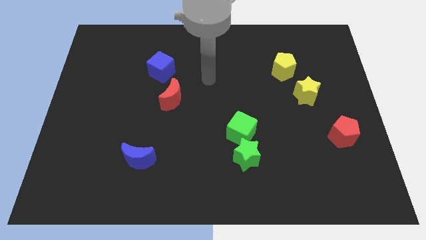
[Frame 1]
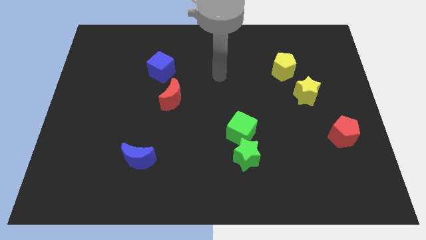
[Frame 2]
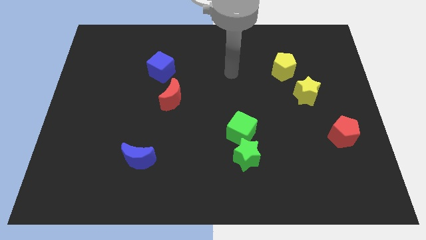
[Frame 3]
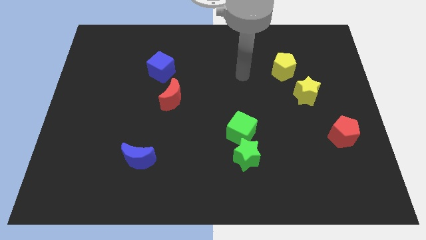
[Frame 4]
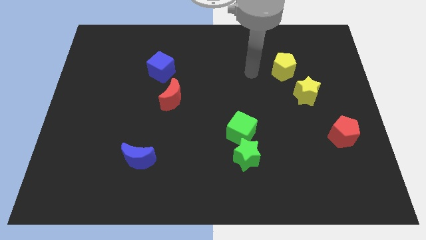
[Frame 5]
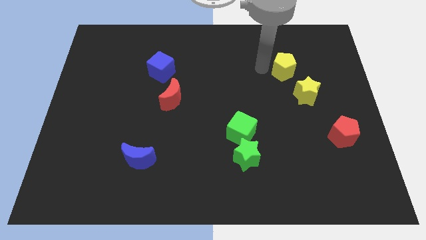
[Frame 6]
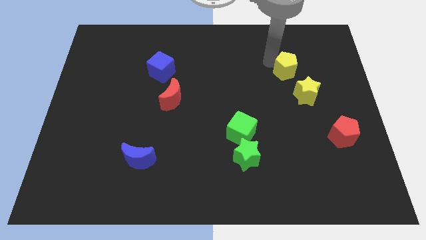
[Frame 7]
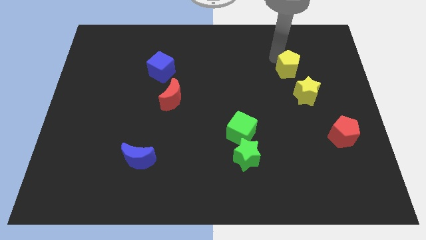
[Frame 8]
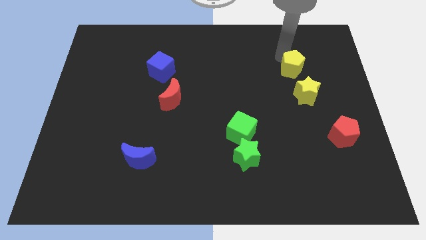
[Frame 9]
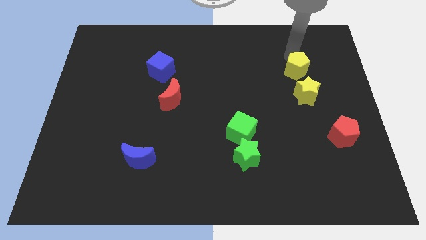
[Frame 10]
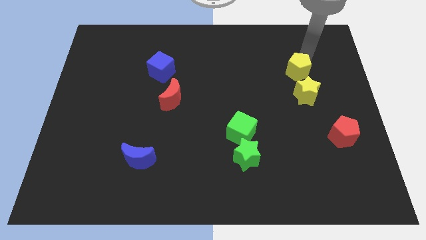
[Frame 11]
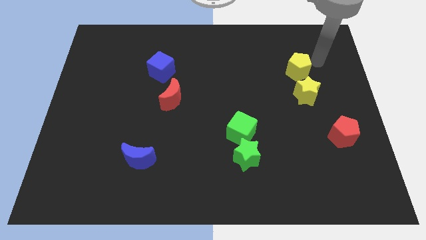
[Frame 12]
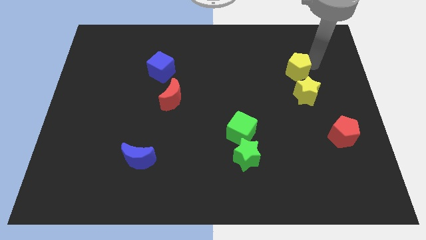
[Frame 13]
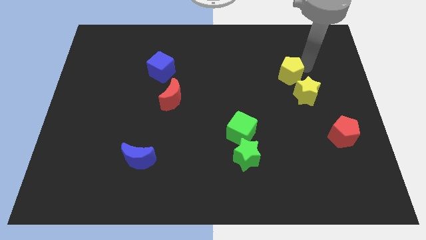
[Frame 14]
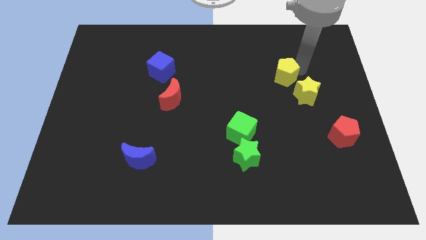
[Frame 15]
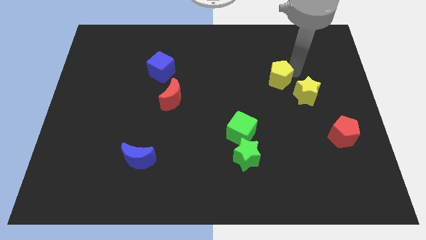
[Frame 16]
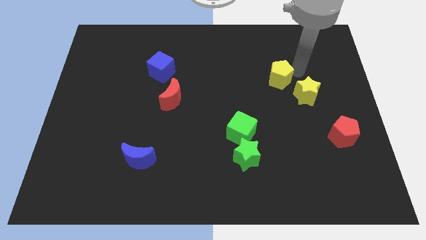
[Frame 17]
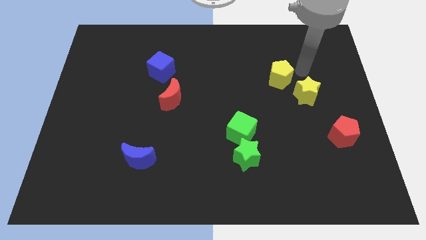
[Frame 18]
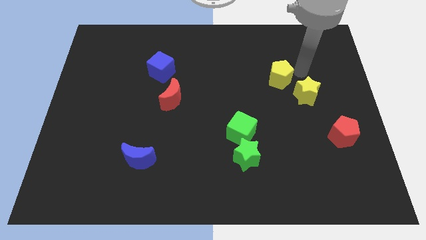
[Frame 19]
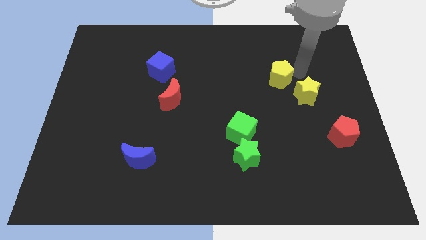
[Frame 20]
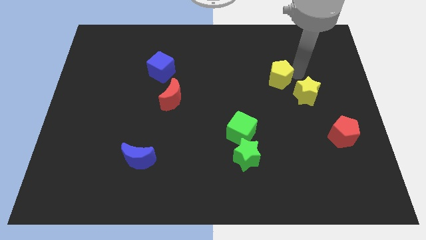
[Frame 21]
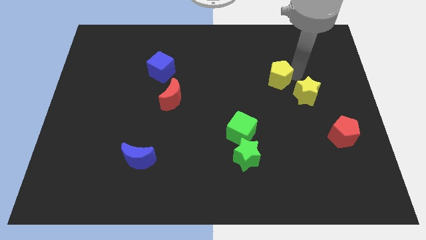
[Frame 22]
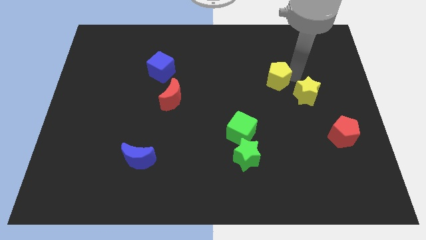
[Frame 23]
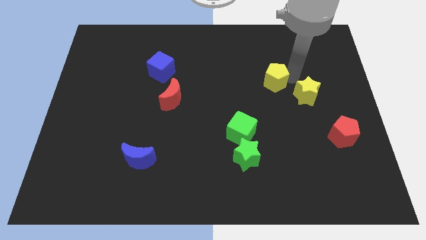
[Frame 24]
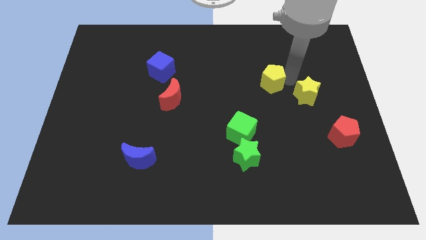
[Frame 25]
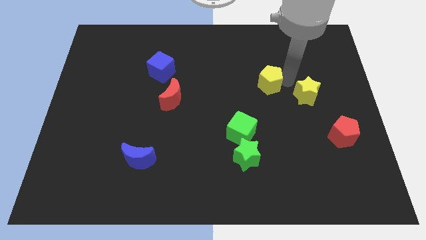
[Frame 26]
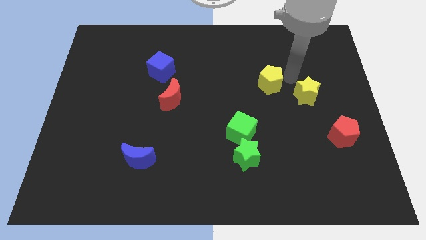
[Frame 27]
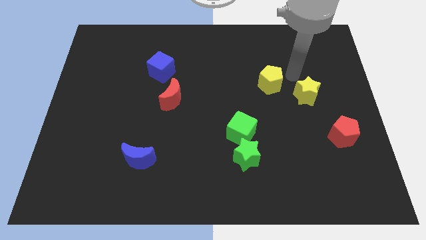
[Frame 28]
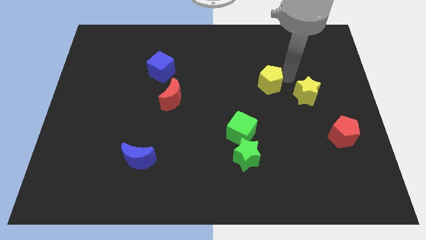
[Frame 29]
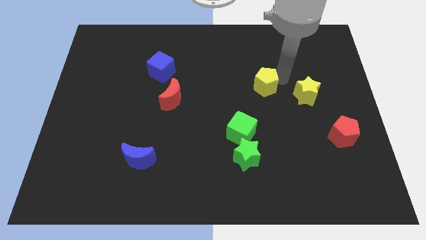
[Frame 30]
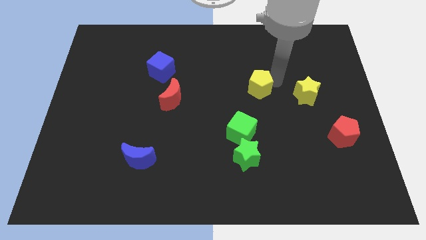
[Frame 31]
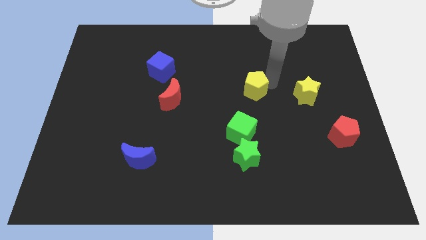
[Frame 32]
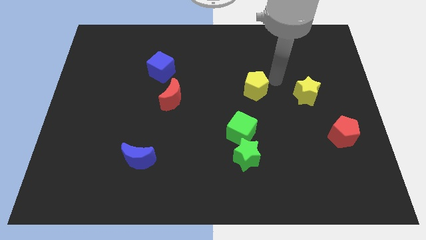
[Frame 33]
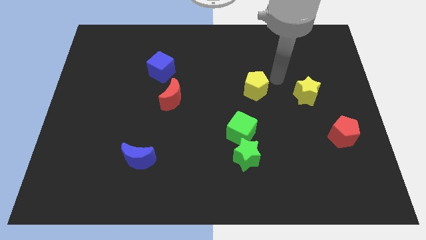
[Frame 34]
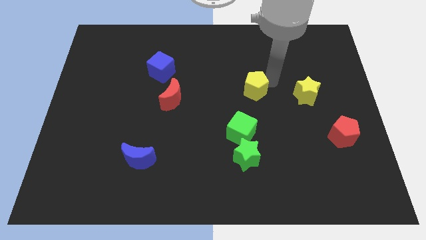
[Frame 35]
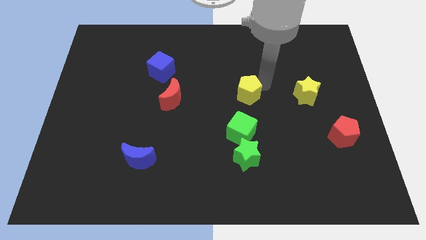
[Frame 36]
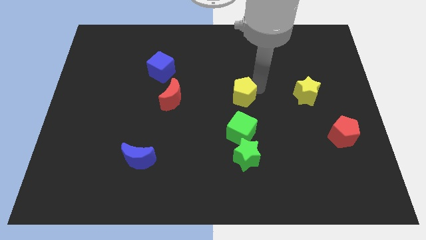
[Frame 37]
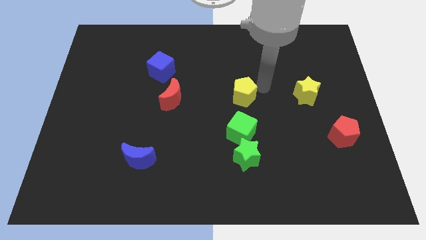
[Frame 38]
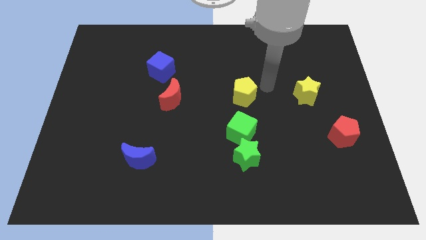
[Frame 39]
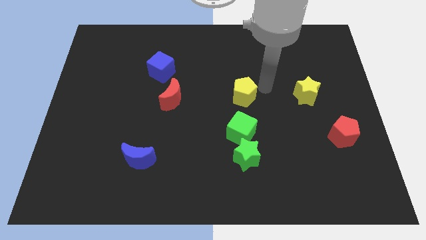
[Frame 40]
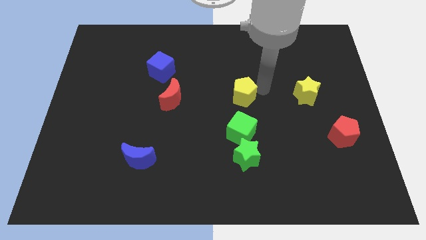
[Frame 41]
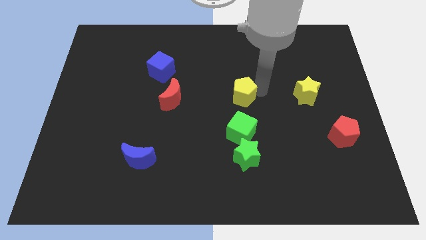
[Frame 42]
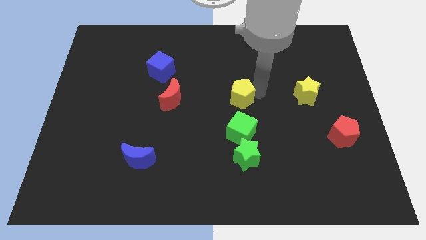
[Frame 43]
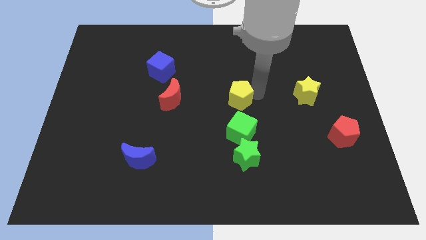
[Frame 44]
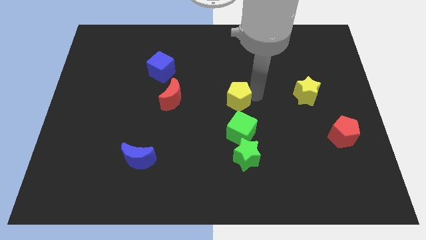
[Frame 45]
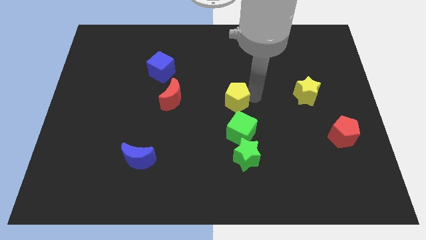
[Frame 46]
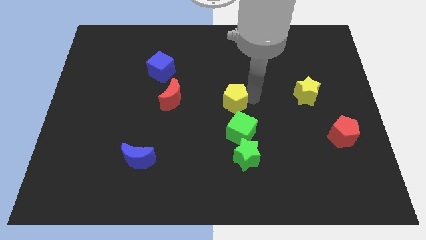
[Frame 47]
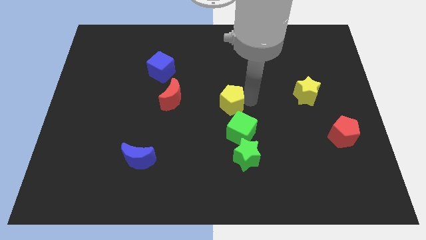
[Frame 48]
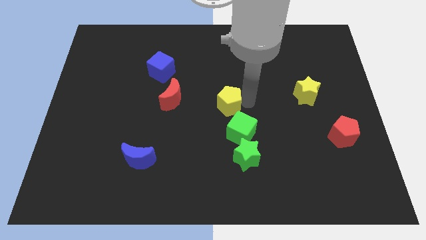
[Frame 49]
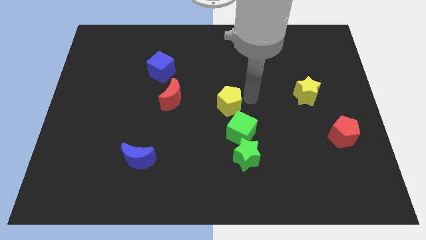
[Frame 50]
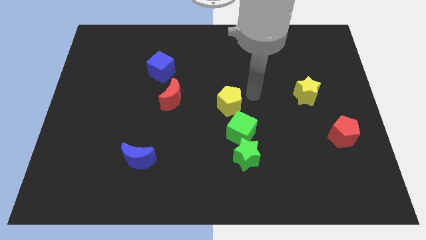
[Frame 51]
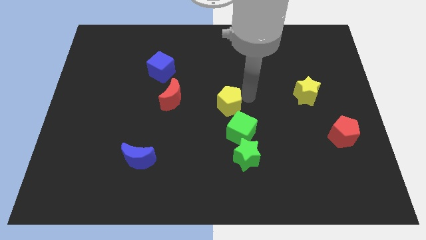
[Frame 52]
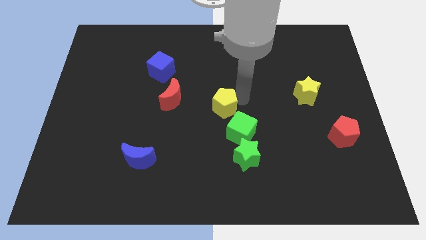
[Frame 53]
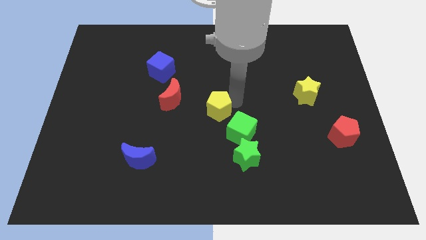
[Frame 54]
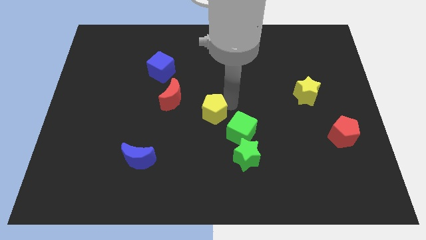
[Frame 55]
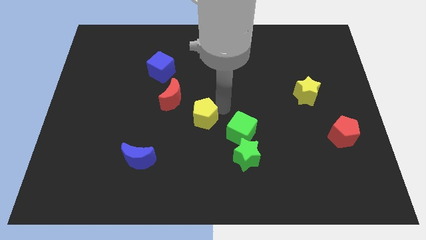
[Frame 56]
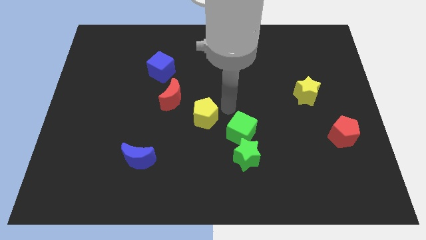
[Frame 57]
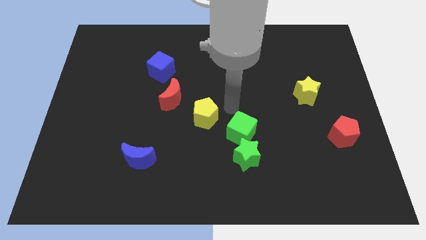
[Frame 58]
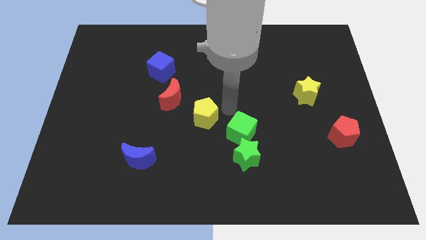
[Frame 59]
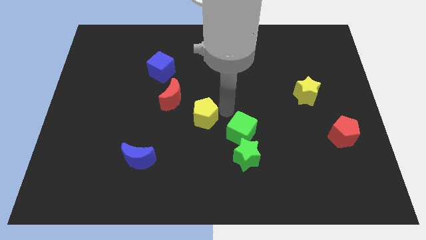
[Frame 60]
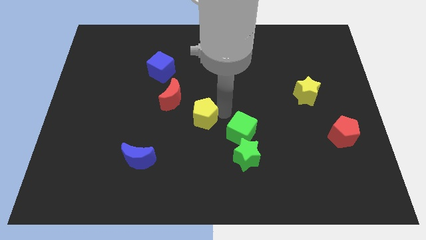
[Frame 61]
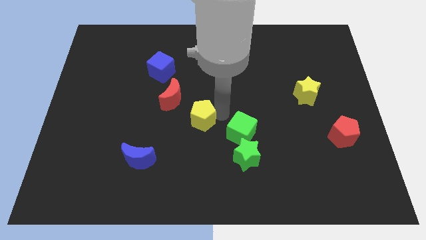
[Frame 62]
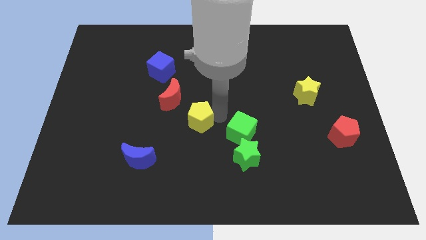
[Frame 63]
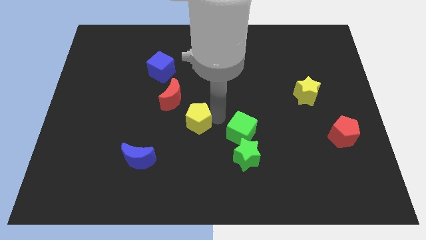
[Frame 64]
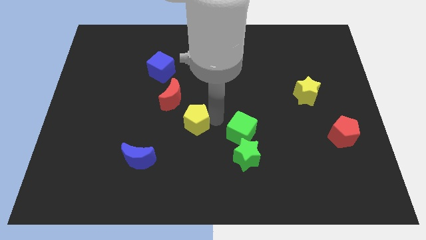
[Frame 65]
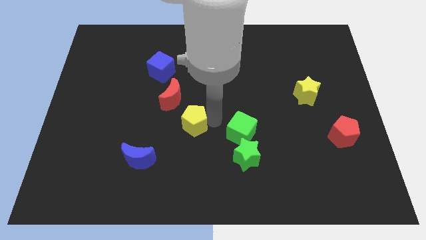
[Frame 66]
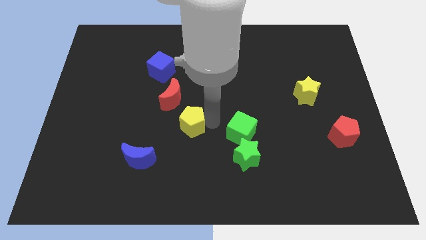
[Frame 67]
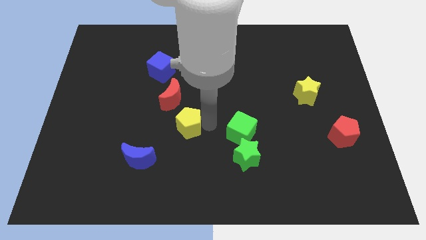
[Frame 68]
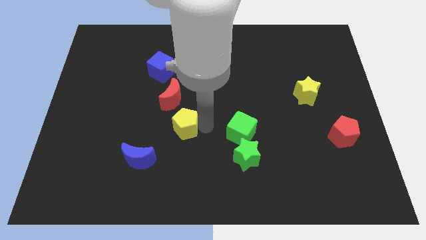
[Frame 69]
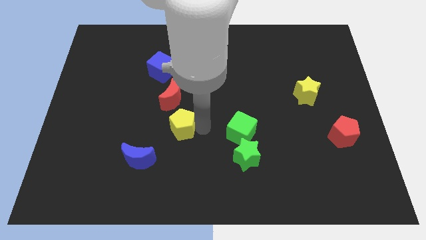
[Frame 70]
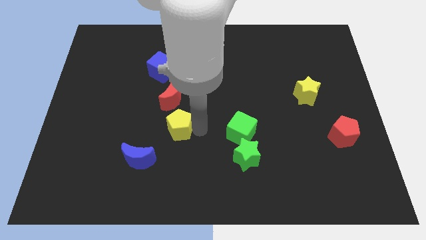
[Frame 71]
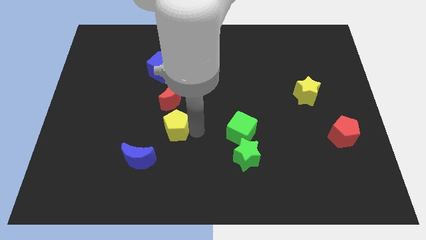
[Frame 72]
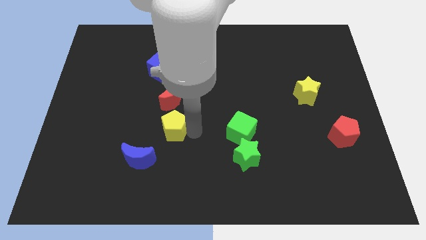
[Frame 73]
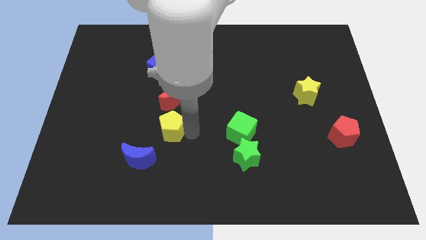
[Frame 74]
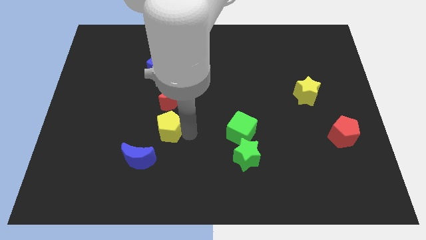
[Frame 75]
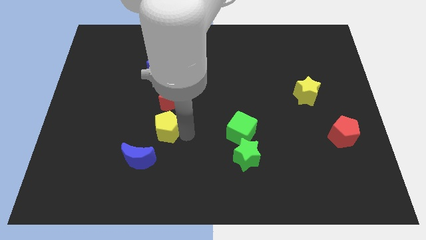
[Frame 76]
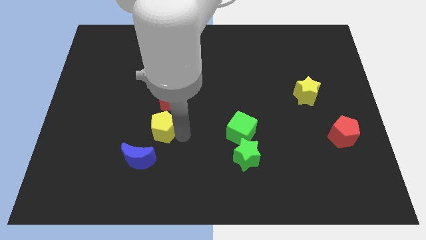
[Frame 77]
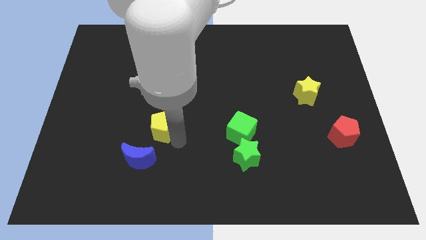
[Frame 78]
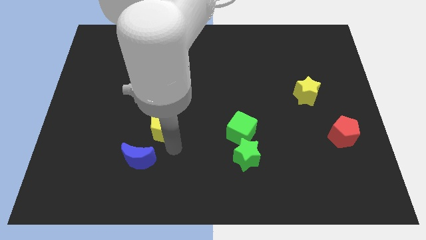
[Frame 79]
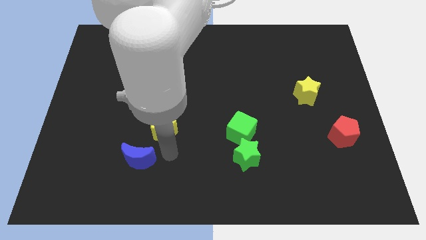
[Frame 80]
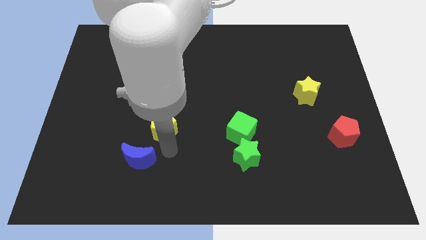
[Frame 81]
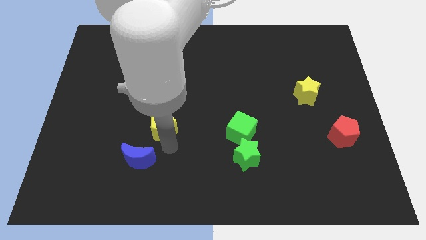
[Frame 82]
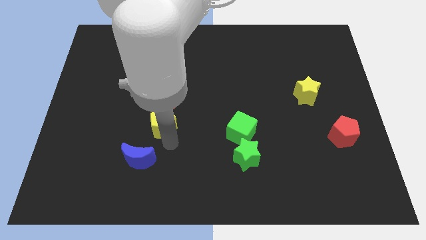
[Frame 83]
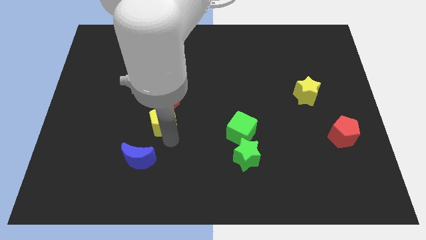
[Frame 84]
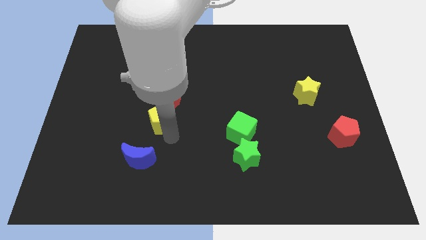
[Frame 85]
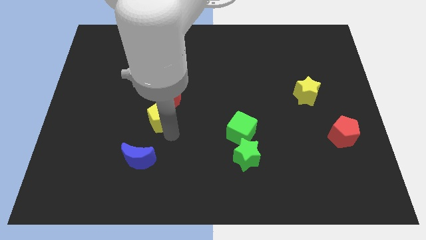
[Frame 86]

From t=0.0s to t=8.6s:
put the yellow pentagon below the blue cube
